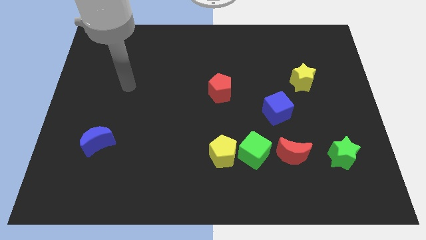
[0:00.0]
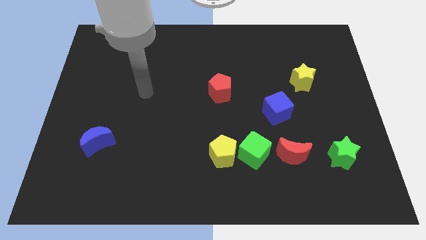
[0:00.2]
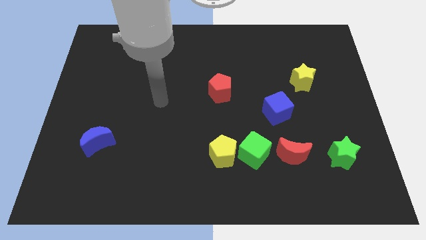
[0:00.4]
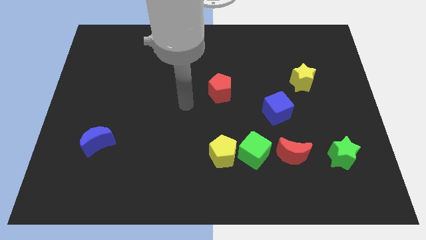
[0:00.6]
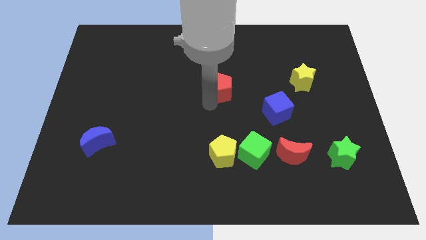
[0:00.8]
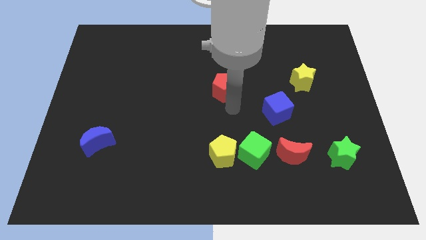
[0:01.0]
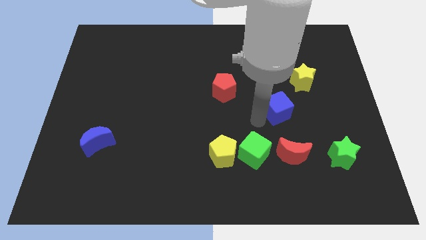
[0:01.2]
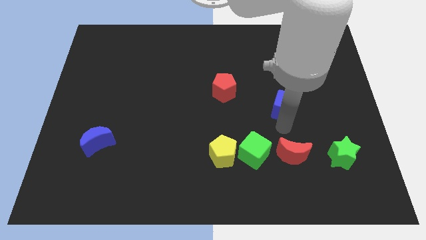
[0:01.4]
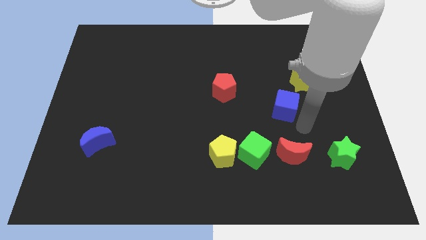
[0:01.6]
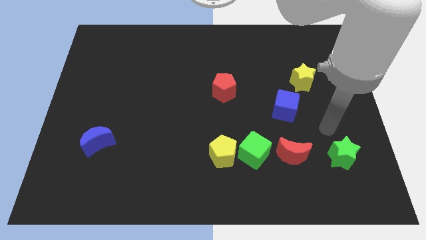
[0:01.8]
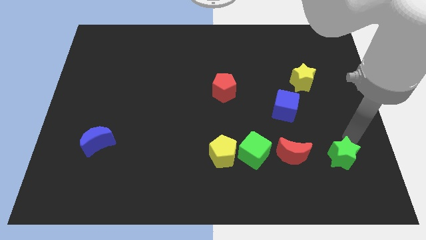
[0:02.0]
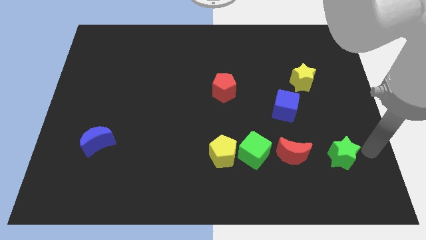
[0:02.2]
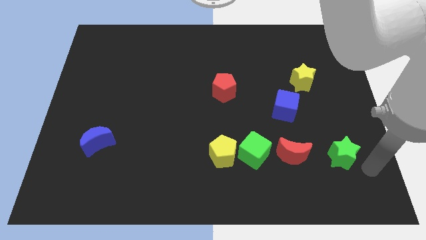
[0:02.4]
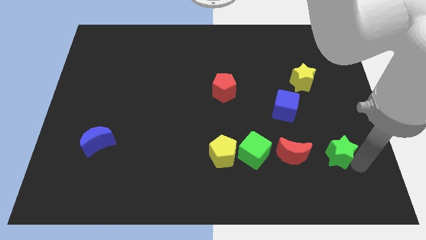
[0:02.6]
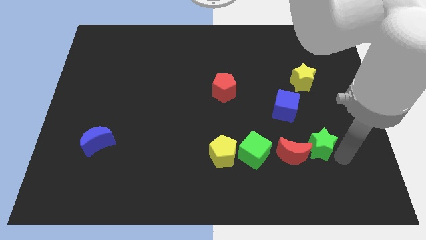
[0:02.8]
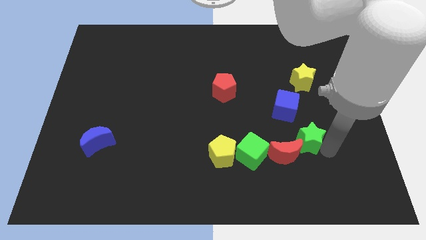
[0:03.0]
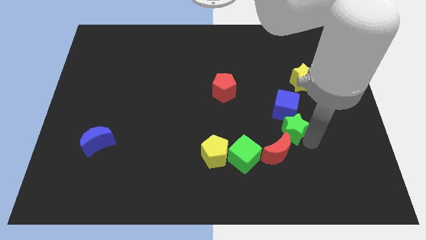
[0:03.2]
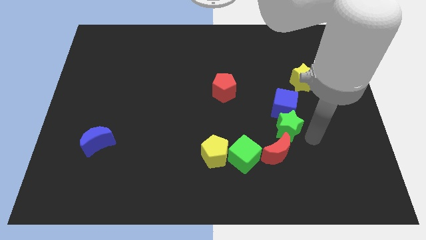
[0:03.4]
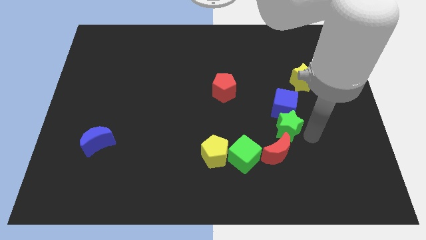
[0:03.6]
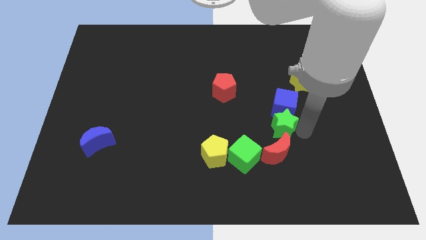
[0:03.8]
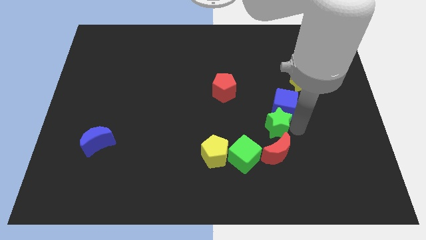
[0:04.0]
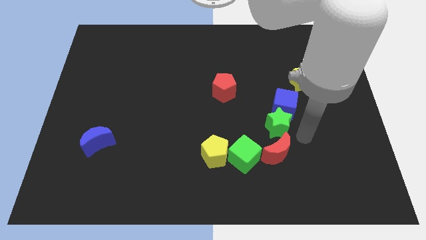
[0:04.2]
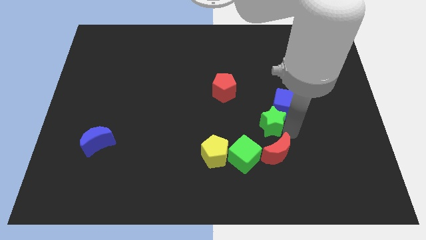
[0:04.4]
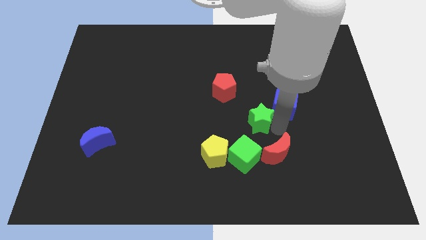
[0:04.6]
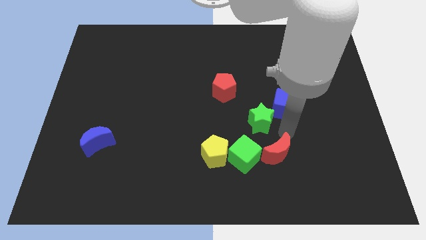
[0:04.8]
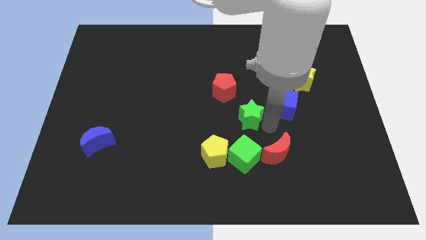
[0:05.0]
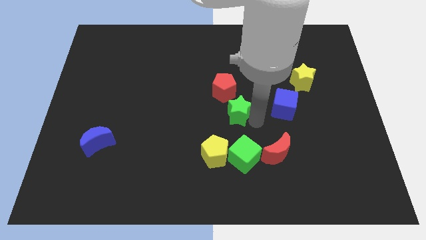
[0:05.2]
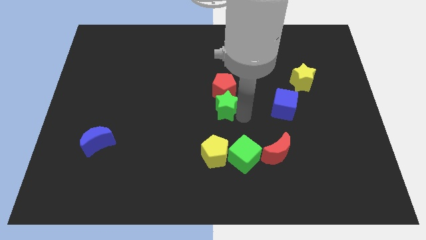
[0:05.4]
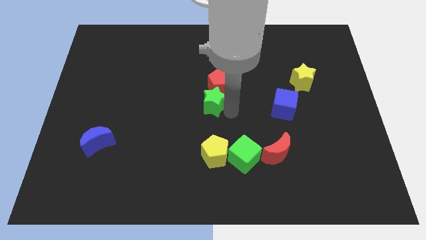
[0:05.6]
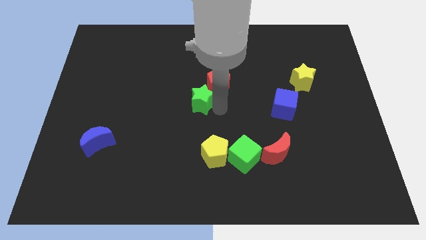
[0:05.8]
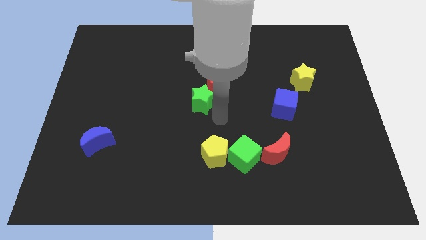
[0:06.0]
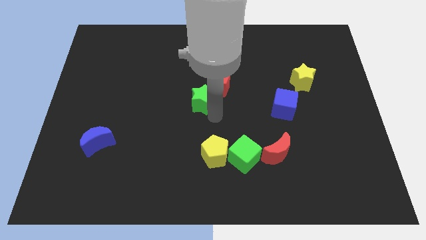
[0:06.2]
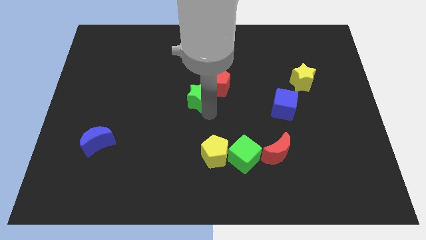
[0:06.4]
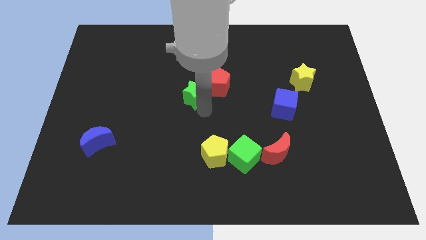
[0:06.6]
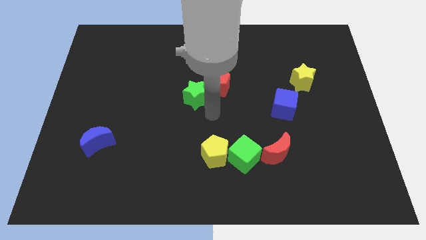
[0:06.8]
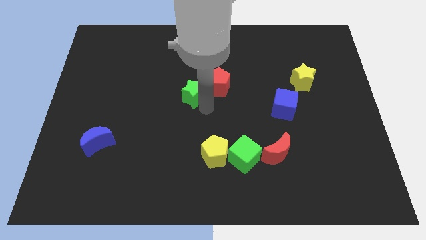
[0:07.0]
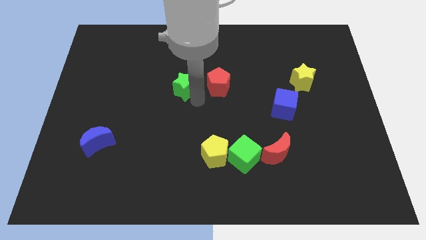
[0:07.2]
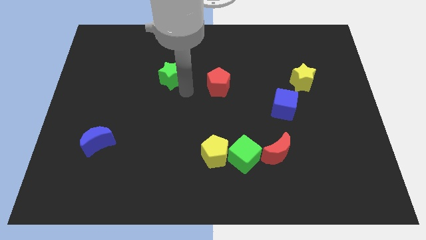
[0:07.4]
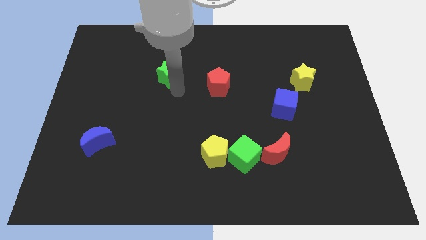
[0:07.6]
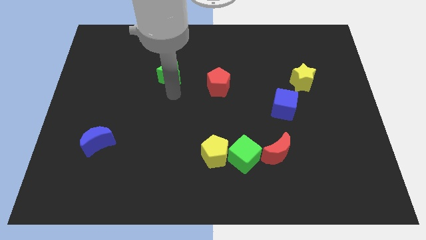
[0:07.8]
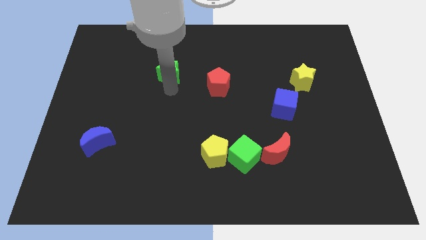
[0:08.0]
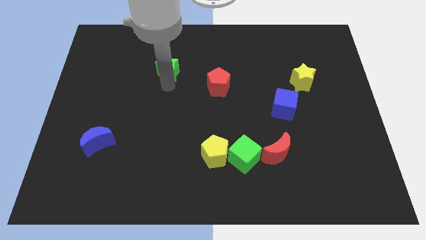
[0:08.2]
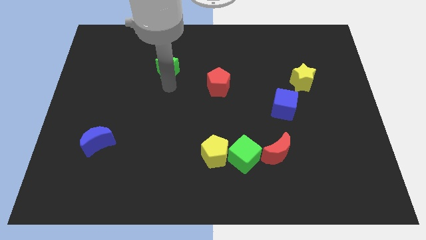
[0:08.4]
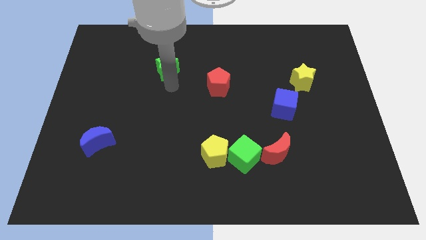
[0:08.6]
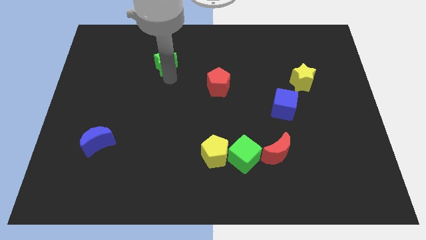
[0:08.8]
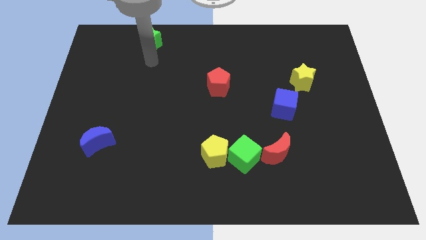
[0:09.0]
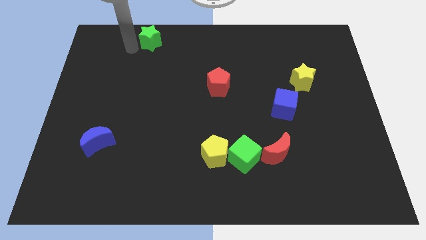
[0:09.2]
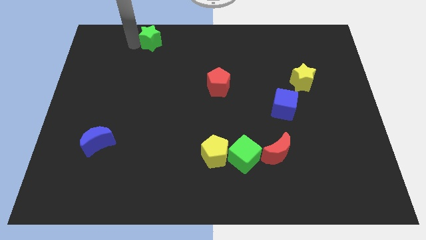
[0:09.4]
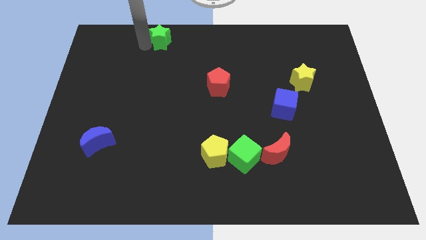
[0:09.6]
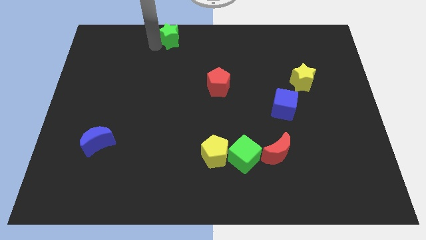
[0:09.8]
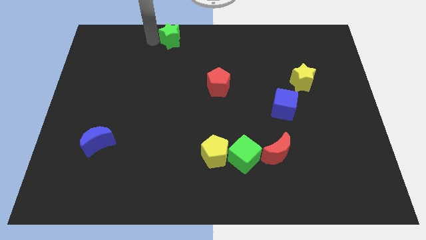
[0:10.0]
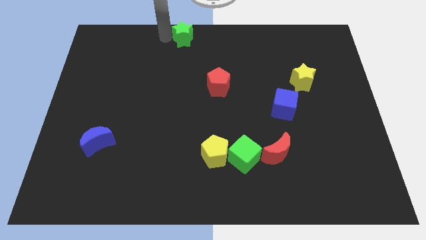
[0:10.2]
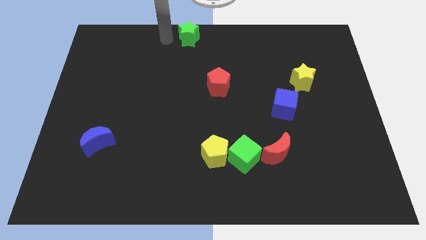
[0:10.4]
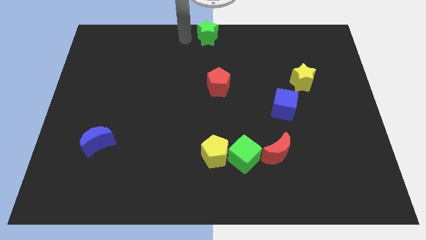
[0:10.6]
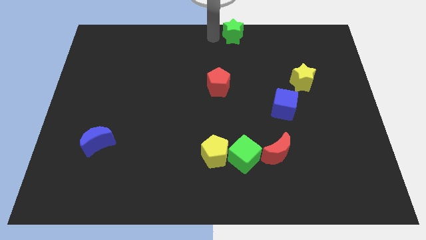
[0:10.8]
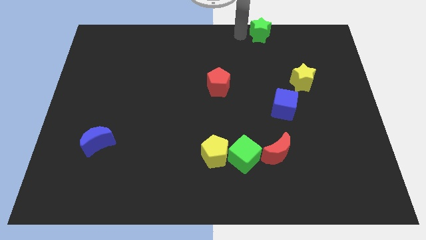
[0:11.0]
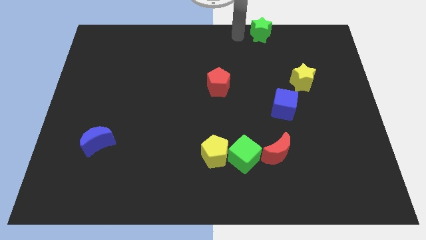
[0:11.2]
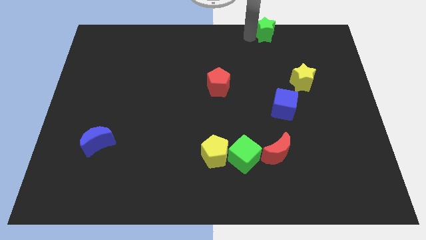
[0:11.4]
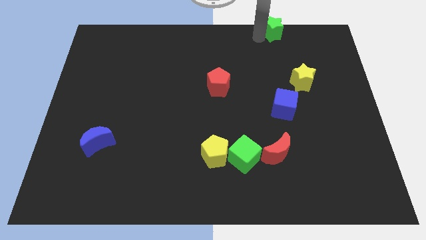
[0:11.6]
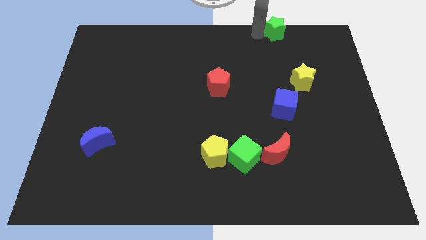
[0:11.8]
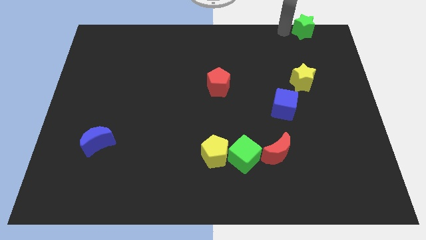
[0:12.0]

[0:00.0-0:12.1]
put the green star to the top right of the board
